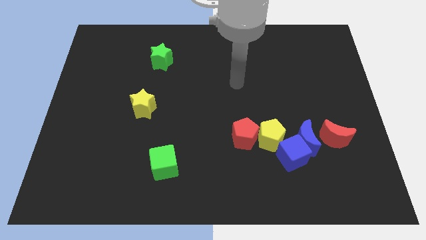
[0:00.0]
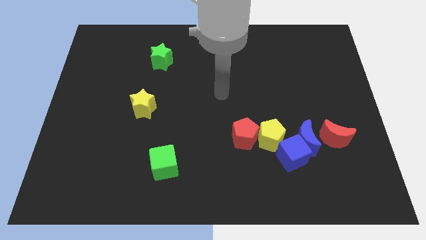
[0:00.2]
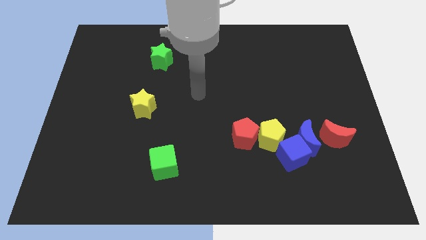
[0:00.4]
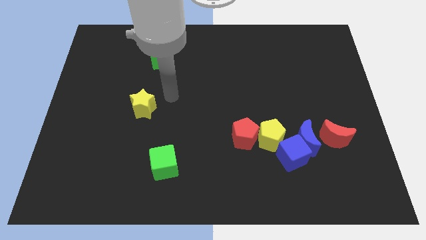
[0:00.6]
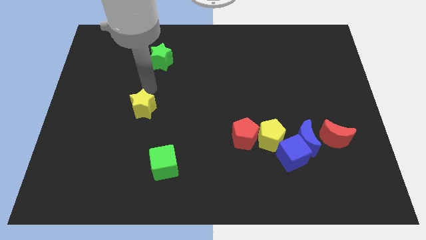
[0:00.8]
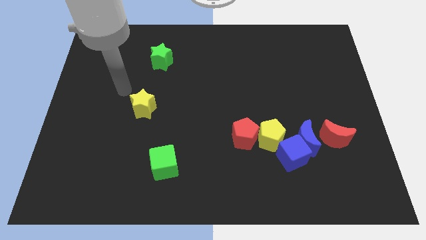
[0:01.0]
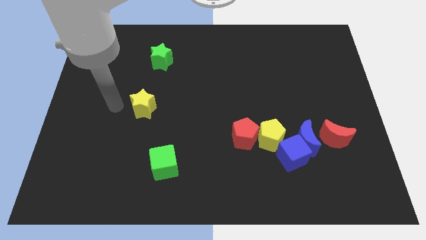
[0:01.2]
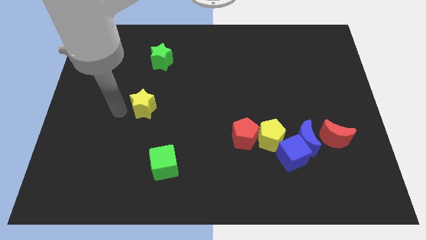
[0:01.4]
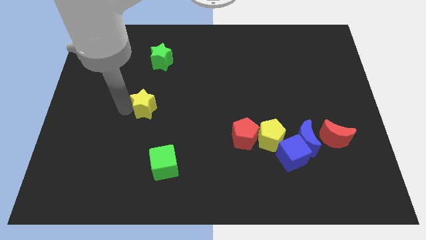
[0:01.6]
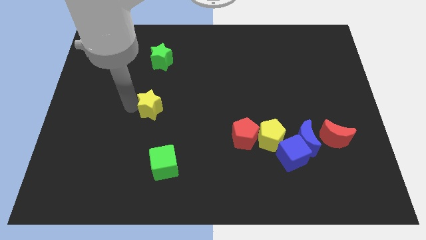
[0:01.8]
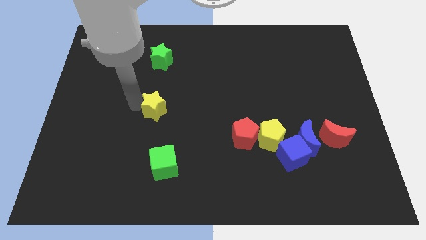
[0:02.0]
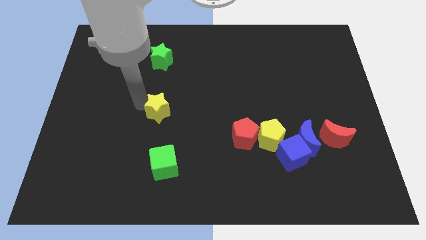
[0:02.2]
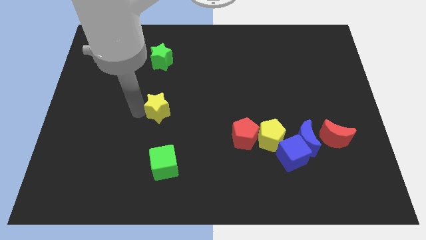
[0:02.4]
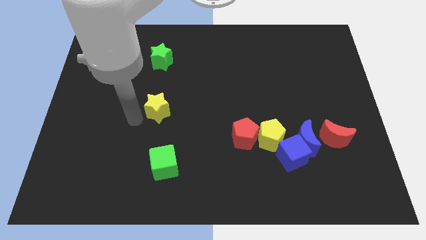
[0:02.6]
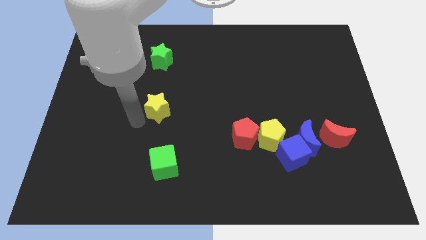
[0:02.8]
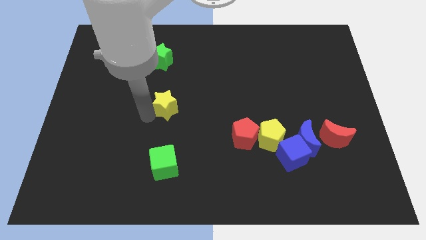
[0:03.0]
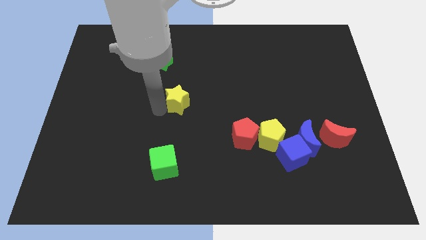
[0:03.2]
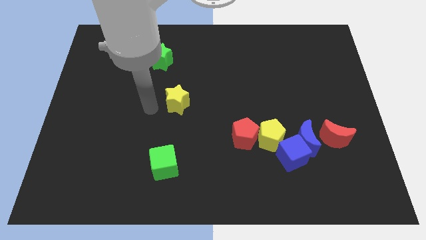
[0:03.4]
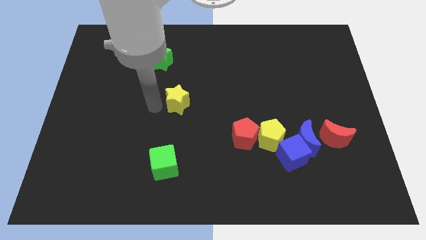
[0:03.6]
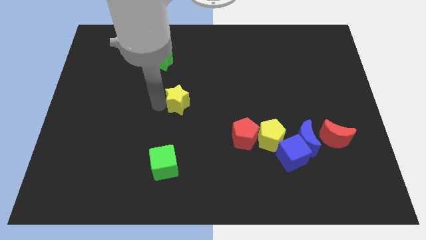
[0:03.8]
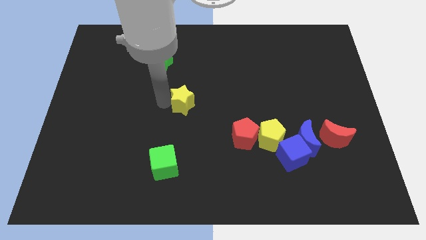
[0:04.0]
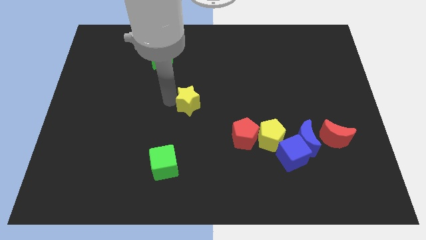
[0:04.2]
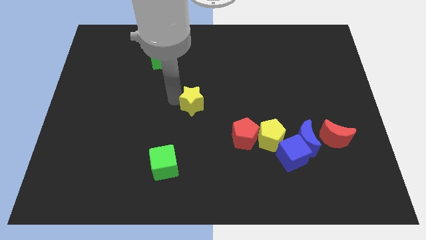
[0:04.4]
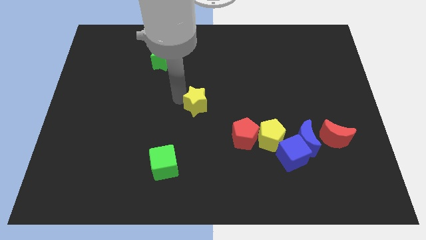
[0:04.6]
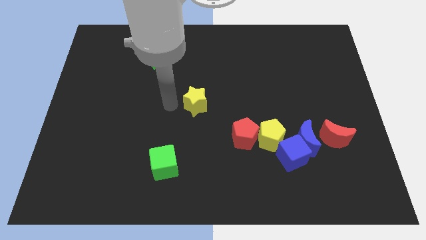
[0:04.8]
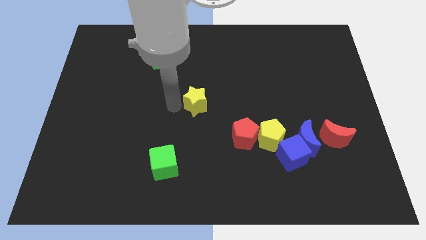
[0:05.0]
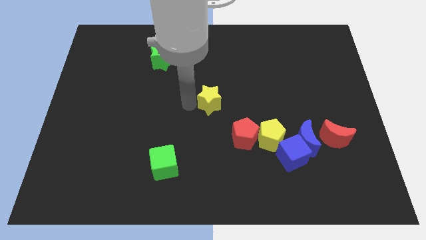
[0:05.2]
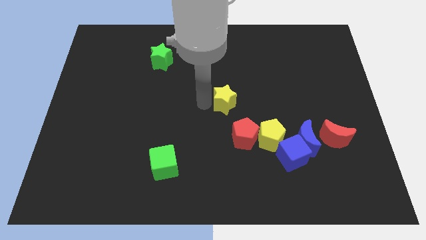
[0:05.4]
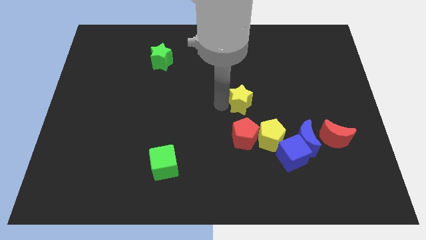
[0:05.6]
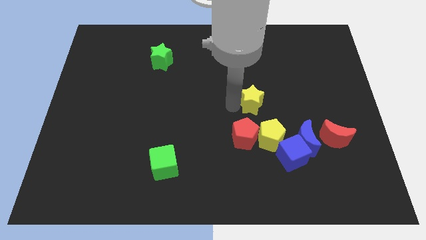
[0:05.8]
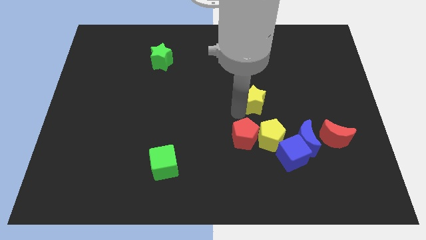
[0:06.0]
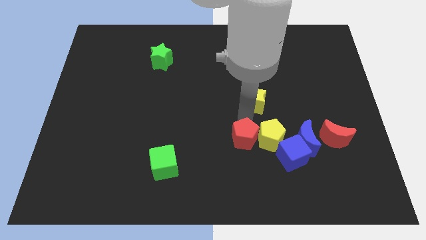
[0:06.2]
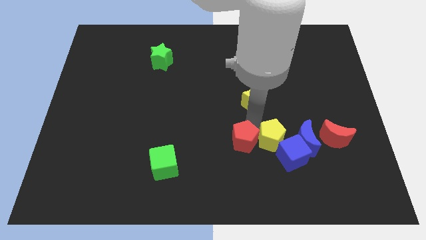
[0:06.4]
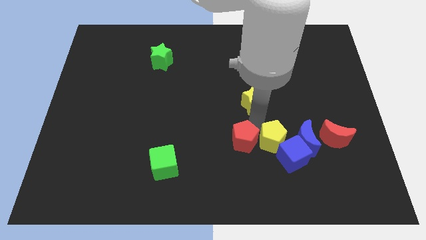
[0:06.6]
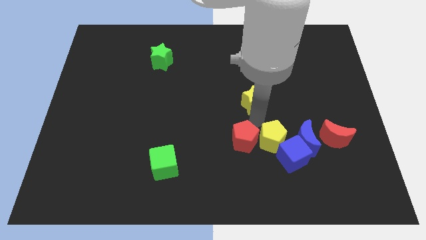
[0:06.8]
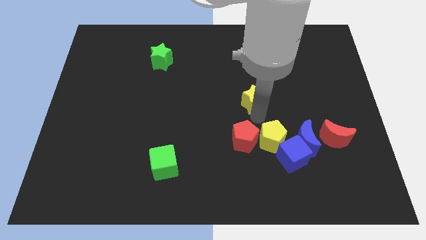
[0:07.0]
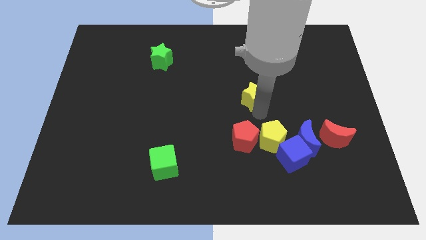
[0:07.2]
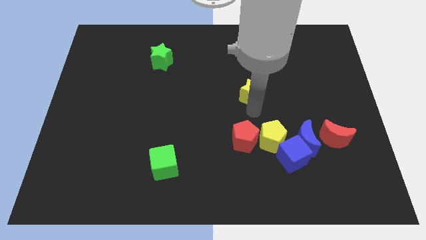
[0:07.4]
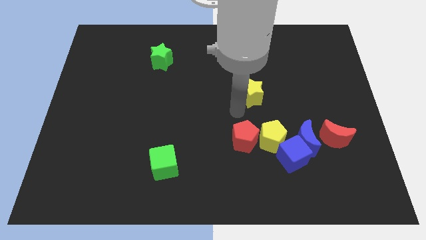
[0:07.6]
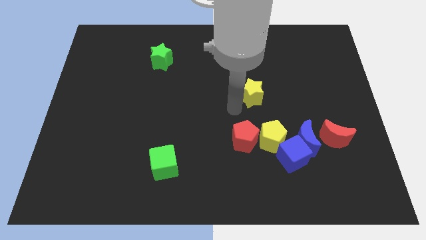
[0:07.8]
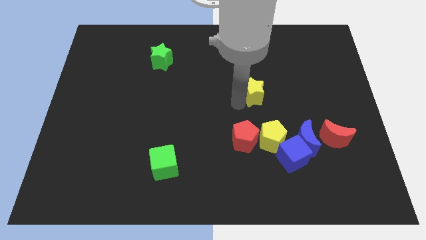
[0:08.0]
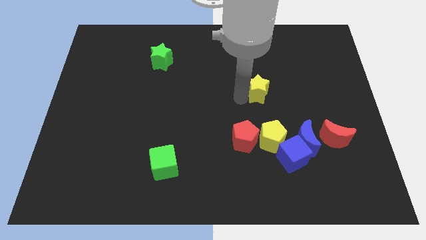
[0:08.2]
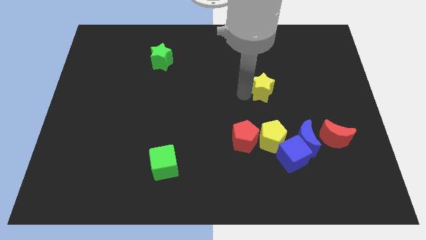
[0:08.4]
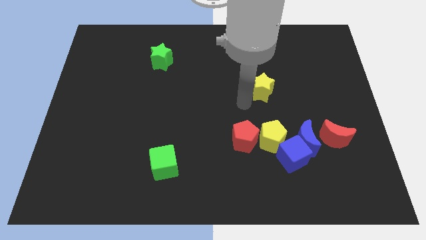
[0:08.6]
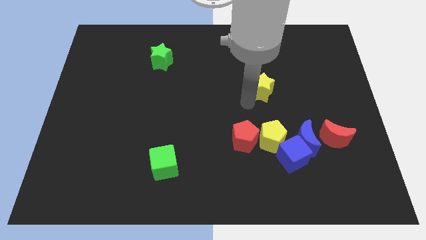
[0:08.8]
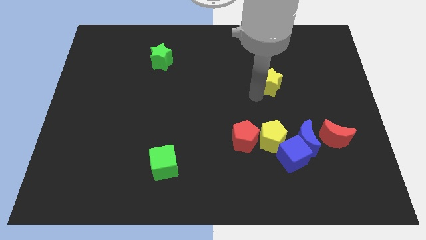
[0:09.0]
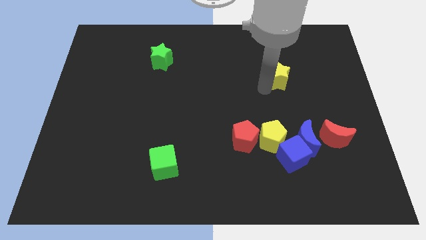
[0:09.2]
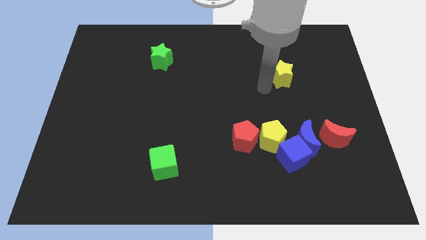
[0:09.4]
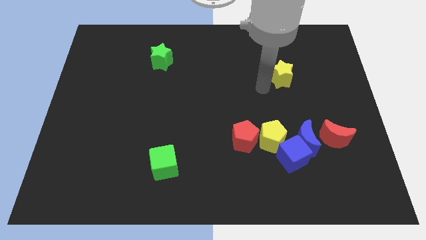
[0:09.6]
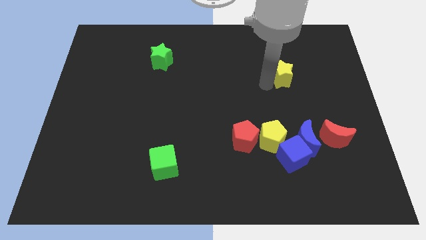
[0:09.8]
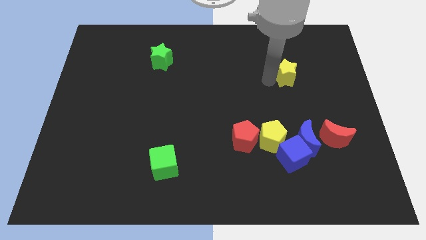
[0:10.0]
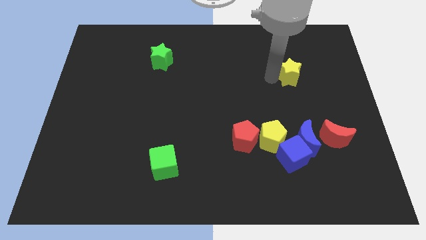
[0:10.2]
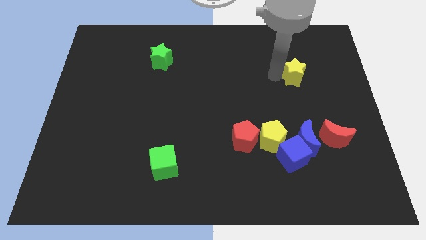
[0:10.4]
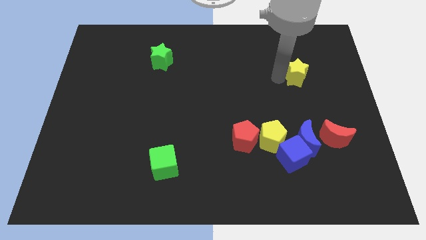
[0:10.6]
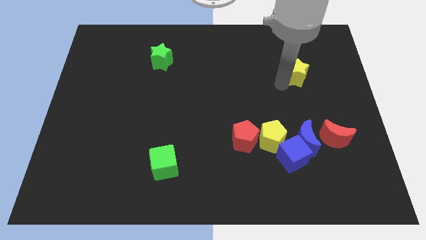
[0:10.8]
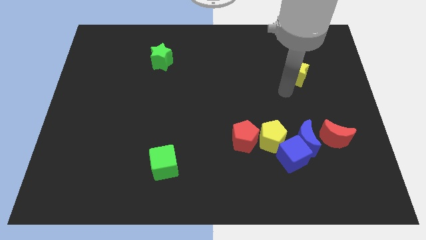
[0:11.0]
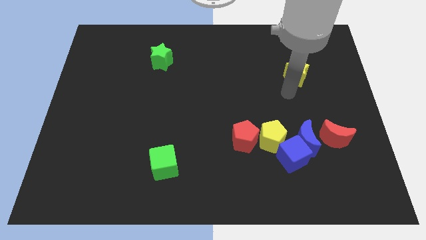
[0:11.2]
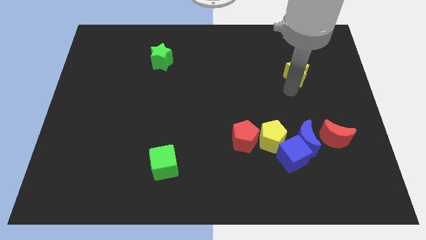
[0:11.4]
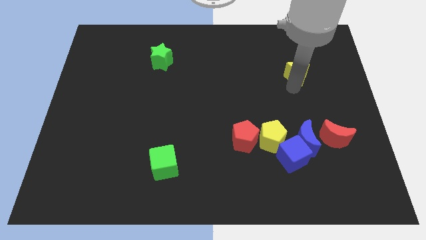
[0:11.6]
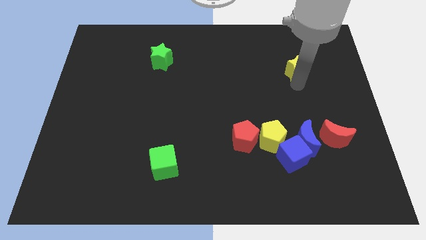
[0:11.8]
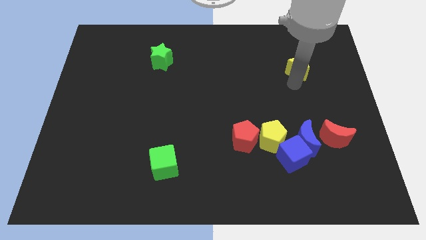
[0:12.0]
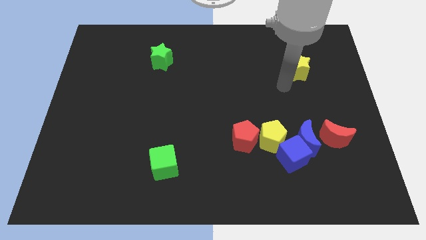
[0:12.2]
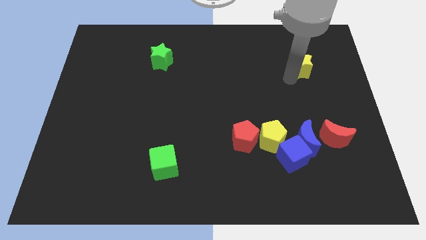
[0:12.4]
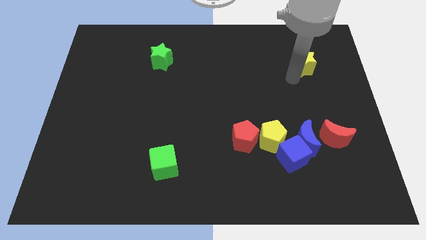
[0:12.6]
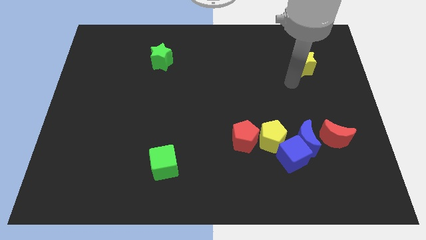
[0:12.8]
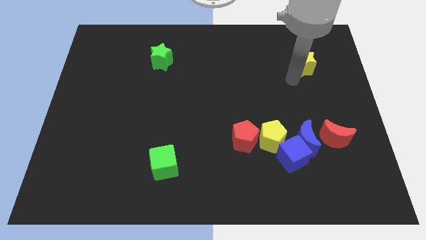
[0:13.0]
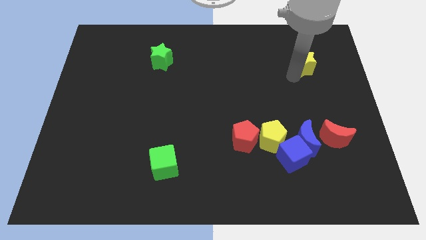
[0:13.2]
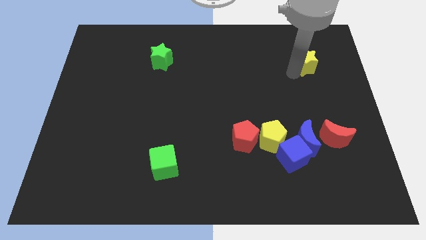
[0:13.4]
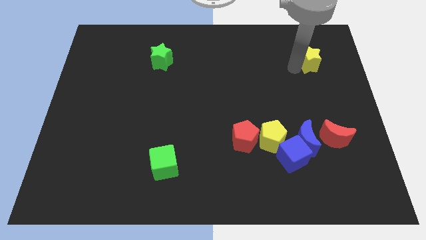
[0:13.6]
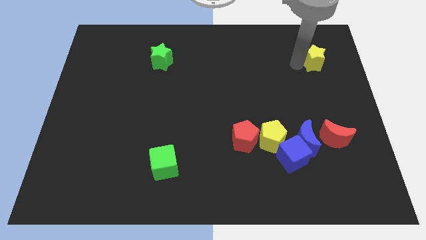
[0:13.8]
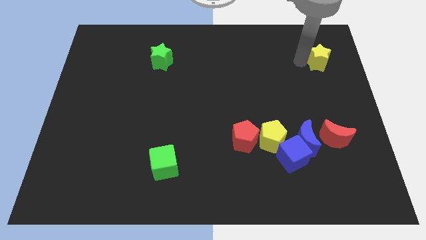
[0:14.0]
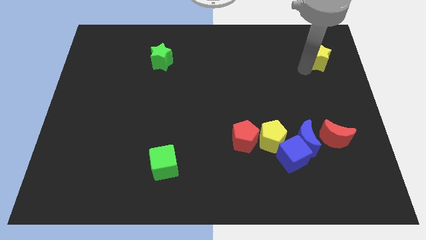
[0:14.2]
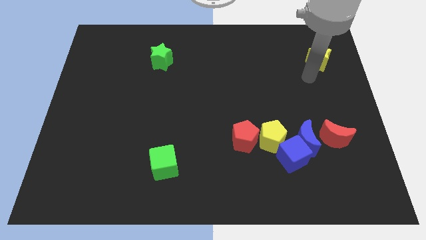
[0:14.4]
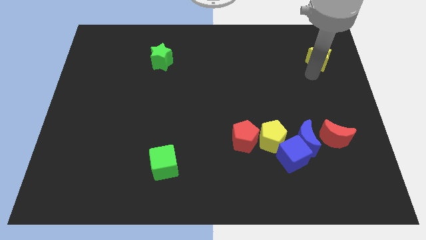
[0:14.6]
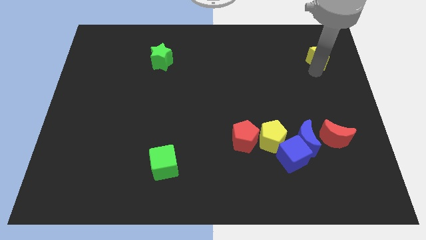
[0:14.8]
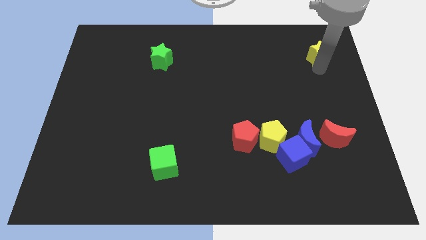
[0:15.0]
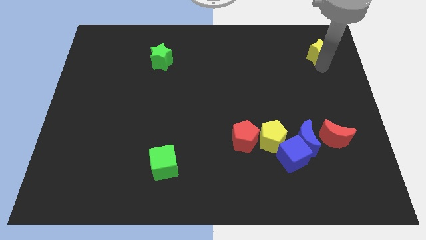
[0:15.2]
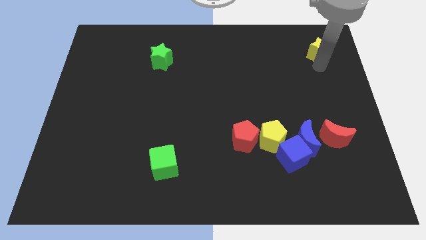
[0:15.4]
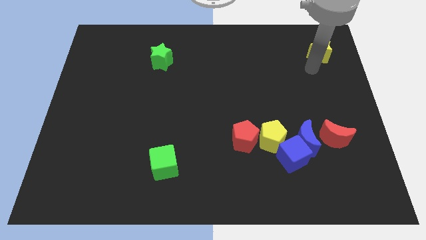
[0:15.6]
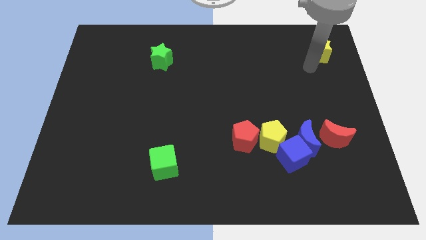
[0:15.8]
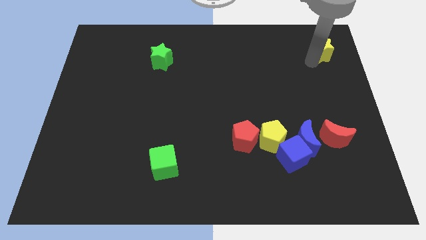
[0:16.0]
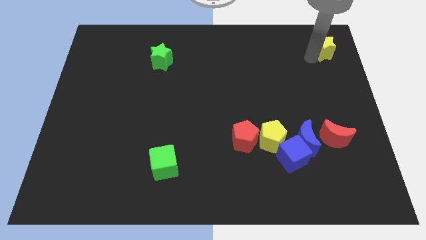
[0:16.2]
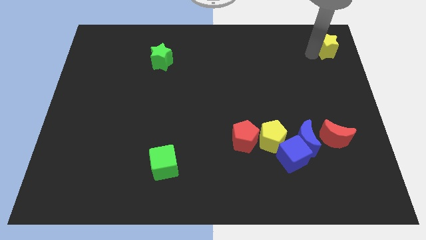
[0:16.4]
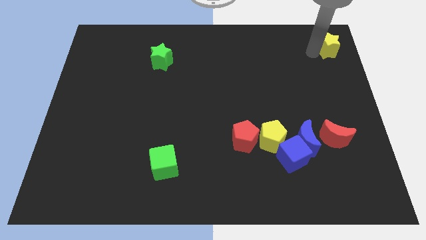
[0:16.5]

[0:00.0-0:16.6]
move the yellow star to the upper right corner
